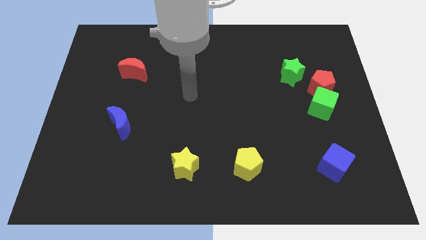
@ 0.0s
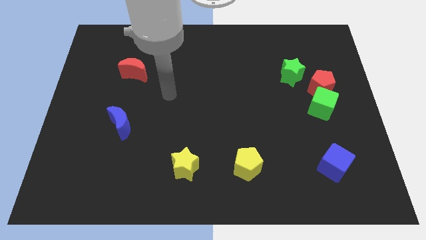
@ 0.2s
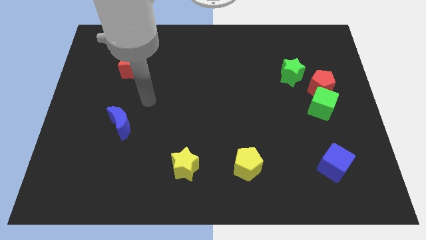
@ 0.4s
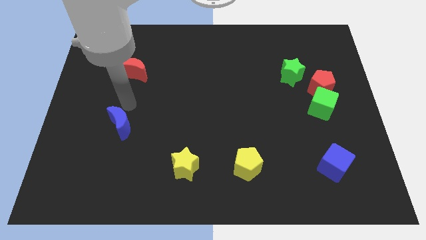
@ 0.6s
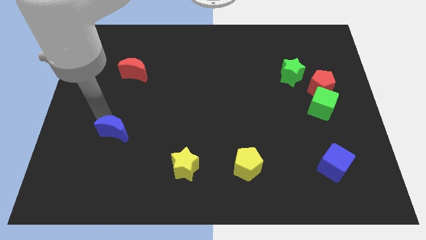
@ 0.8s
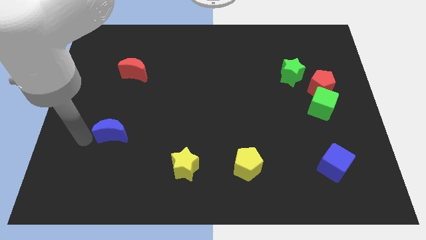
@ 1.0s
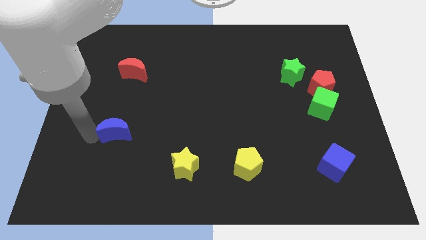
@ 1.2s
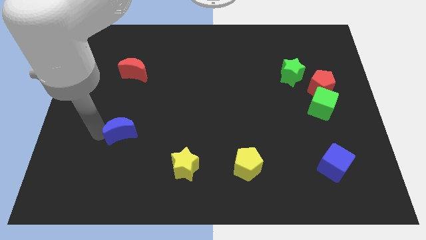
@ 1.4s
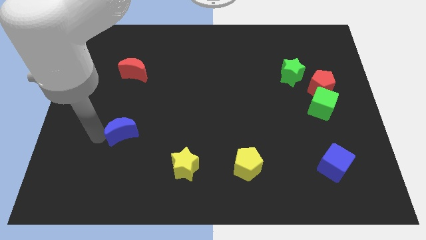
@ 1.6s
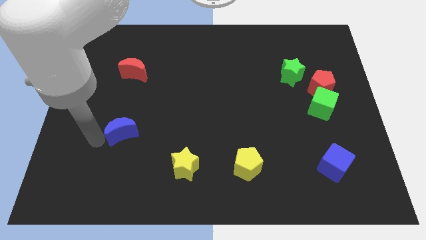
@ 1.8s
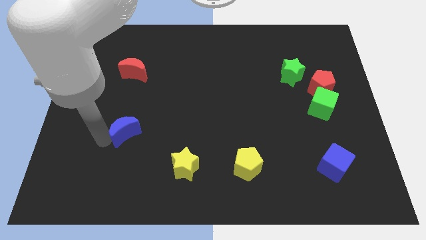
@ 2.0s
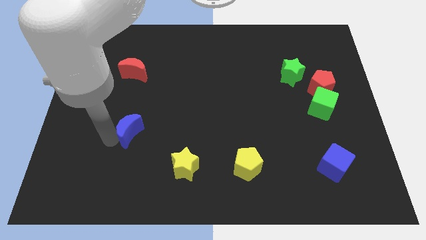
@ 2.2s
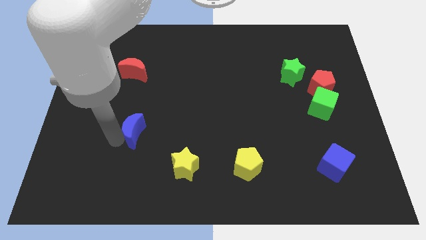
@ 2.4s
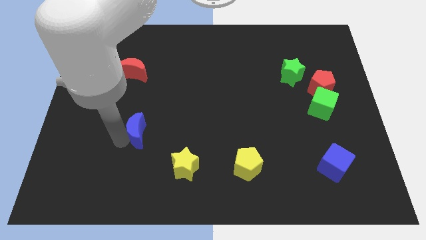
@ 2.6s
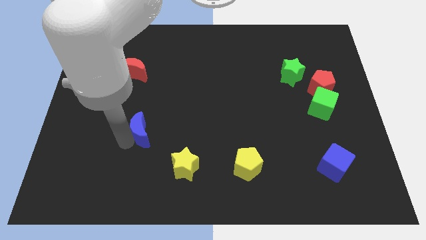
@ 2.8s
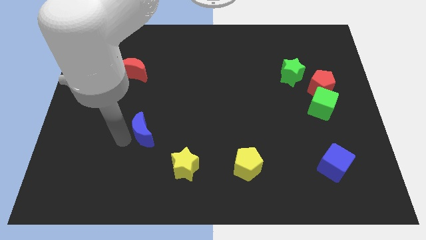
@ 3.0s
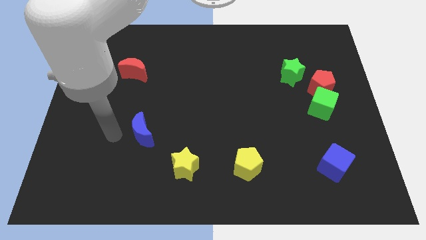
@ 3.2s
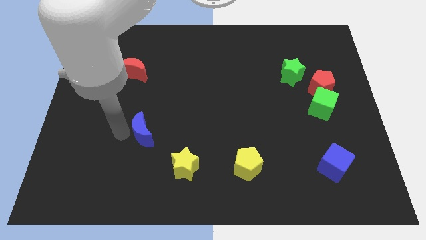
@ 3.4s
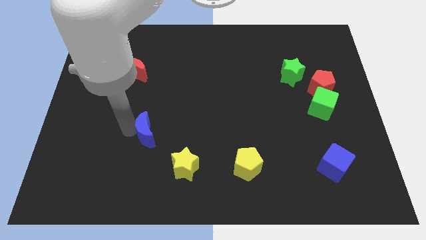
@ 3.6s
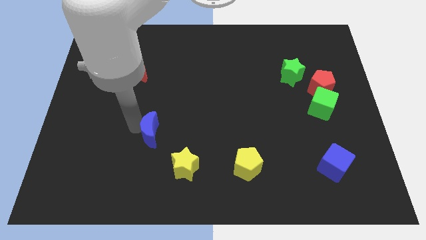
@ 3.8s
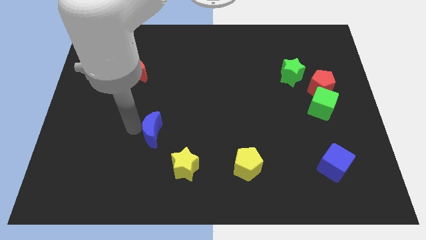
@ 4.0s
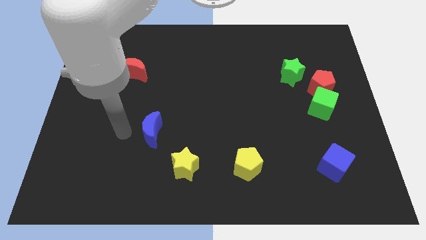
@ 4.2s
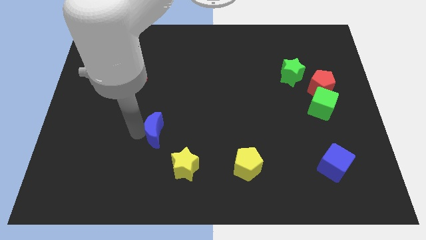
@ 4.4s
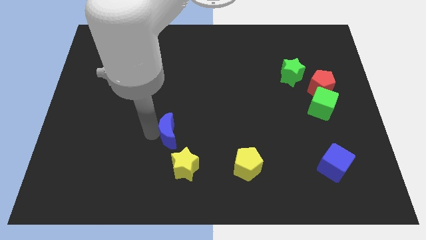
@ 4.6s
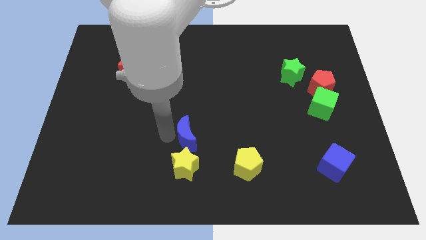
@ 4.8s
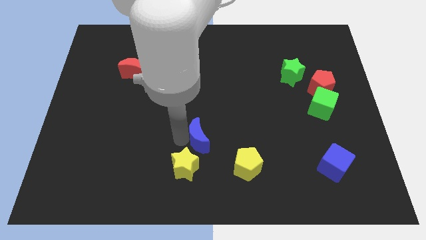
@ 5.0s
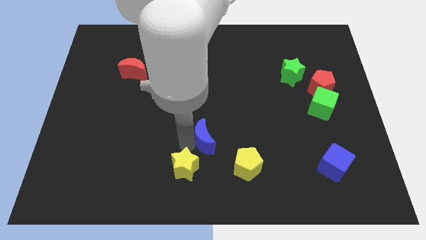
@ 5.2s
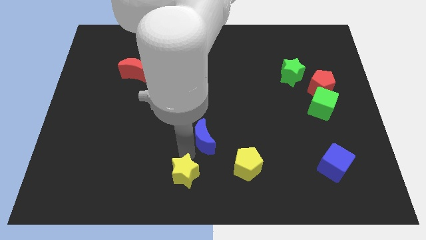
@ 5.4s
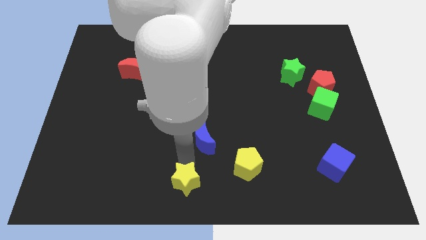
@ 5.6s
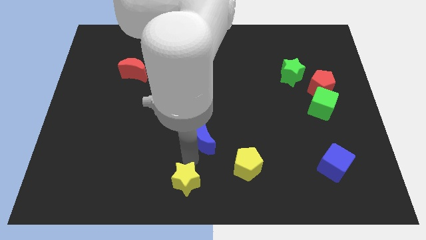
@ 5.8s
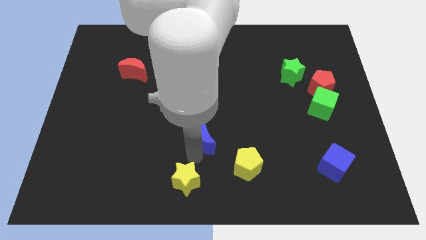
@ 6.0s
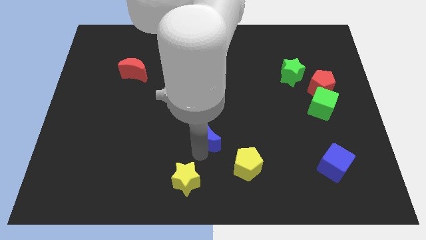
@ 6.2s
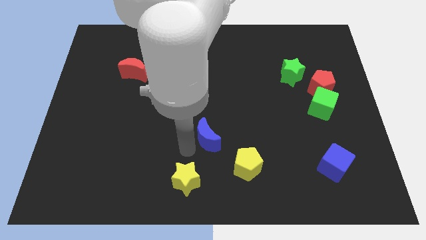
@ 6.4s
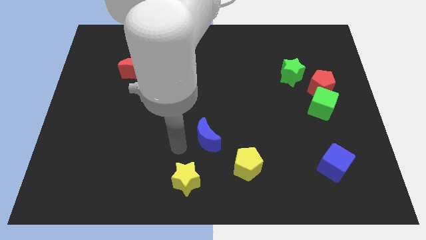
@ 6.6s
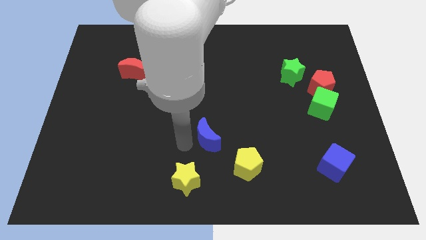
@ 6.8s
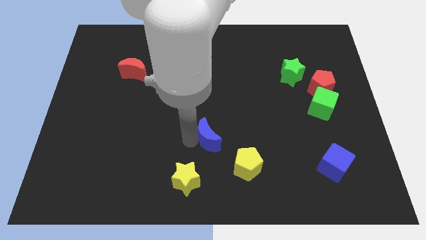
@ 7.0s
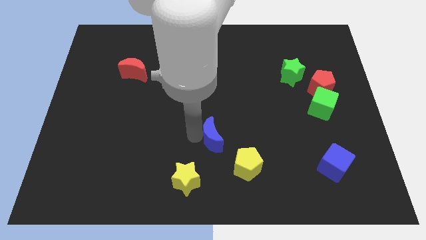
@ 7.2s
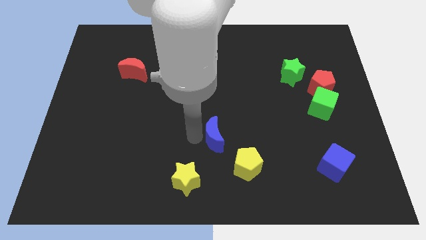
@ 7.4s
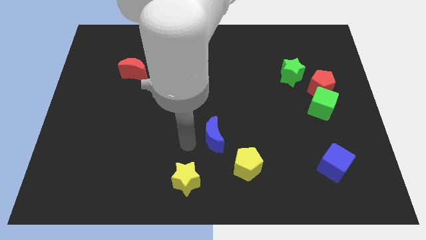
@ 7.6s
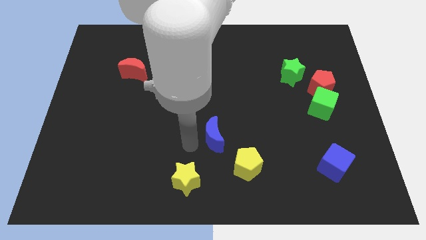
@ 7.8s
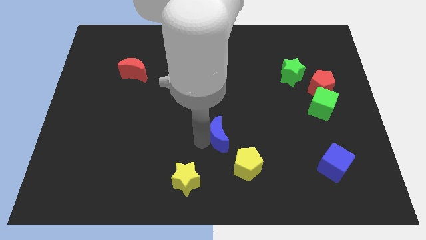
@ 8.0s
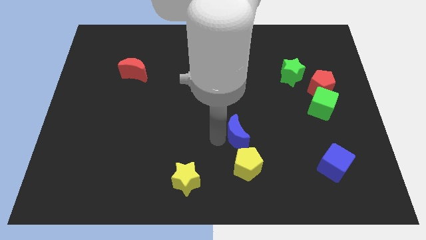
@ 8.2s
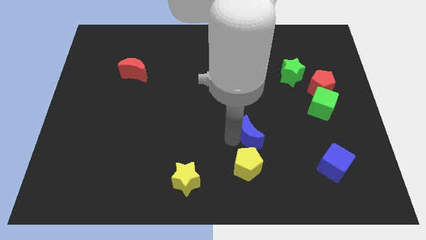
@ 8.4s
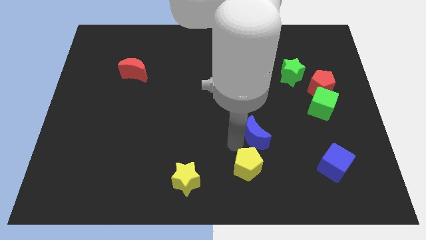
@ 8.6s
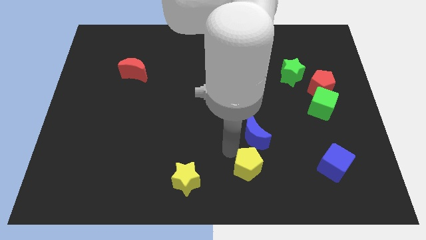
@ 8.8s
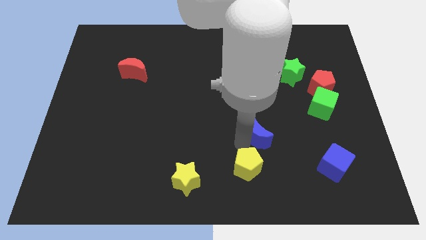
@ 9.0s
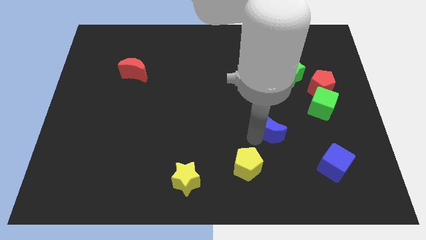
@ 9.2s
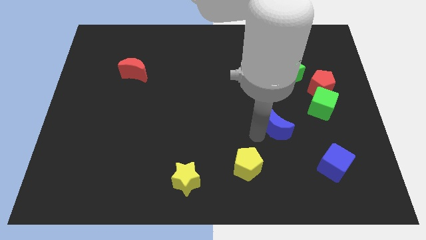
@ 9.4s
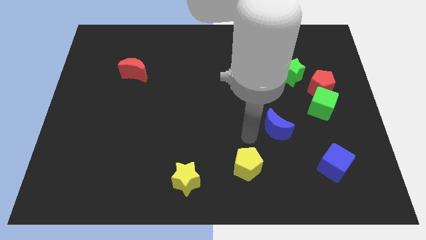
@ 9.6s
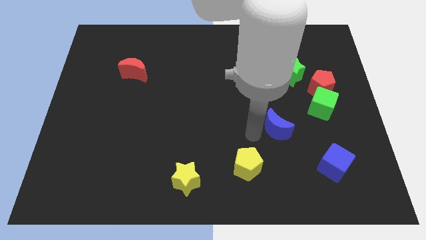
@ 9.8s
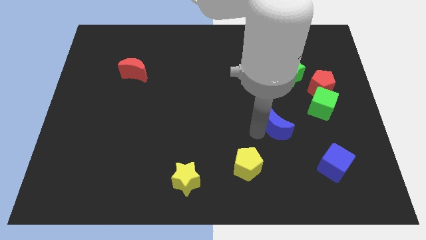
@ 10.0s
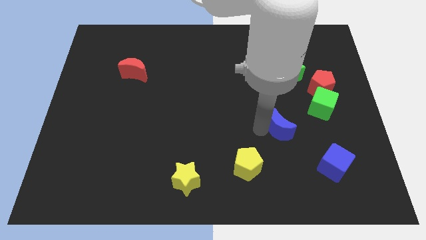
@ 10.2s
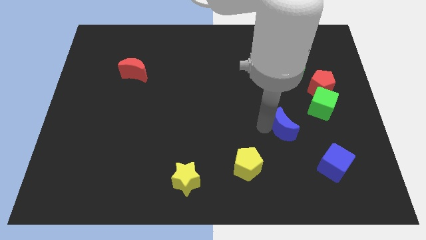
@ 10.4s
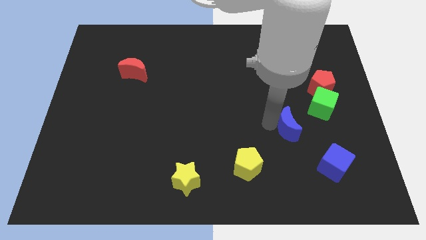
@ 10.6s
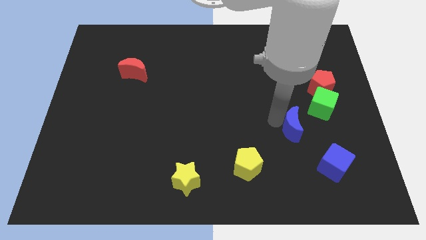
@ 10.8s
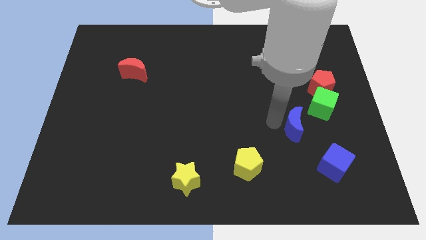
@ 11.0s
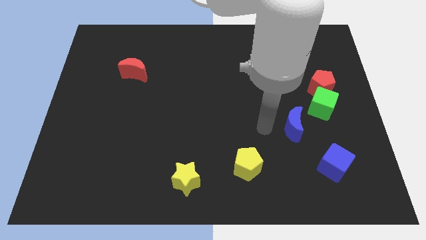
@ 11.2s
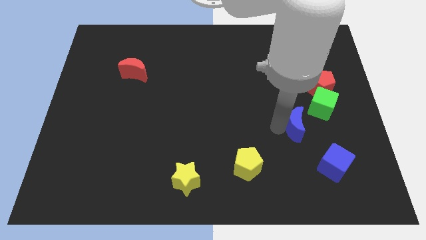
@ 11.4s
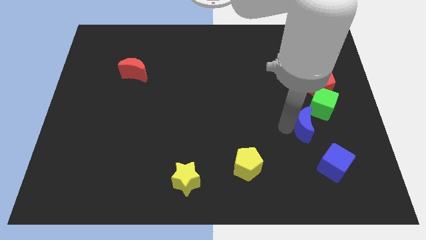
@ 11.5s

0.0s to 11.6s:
slide the blue moon to the top side of the blue cube

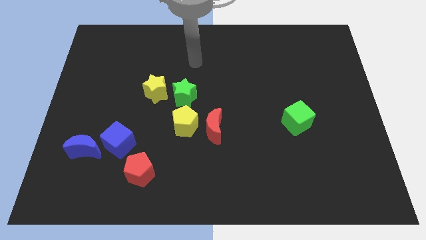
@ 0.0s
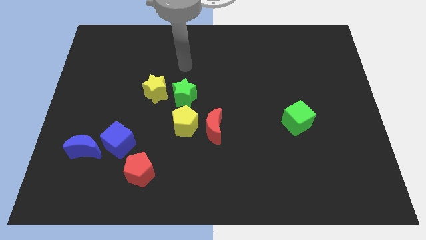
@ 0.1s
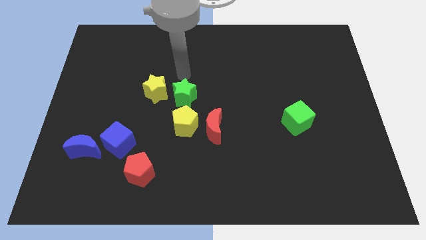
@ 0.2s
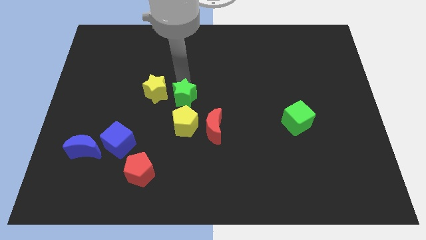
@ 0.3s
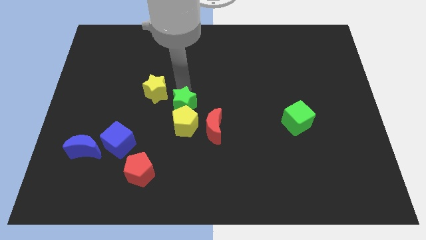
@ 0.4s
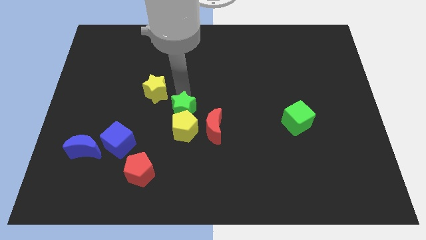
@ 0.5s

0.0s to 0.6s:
put the yellow pentagon diagonally down and to the left of the red moon

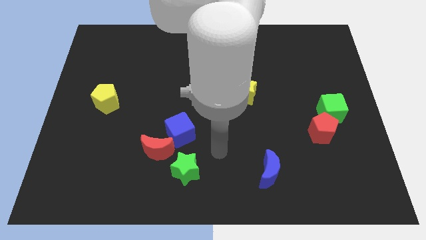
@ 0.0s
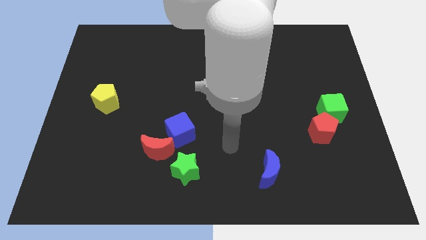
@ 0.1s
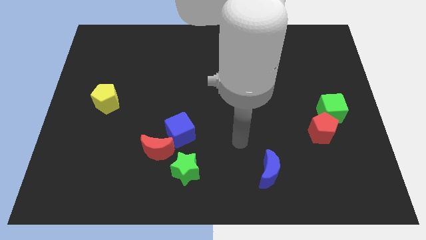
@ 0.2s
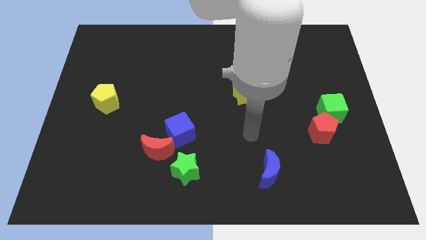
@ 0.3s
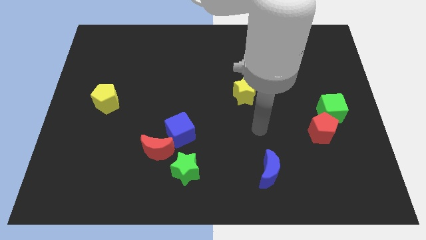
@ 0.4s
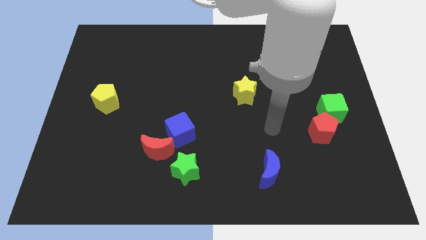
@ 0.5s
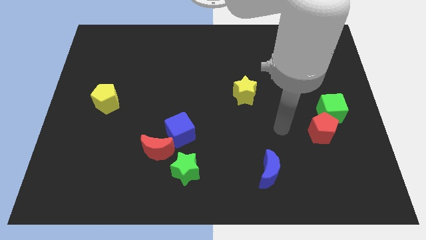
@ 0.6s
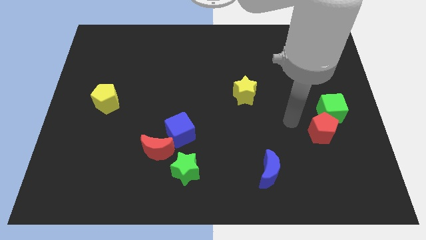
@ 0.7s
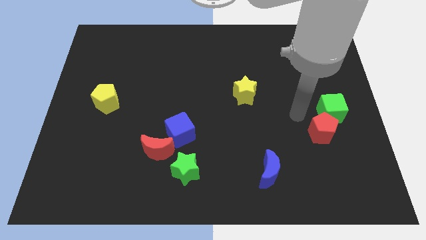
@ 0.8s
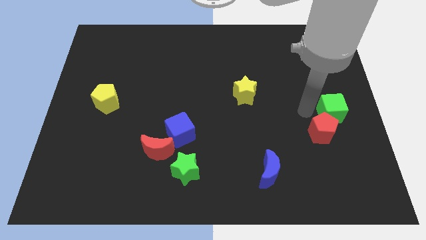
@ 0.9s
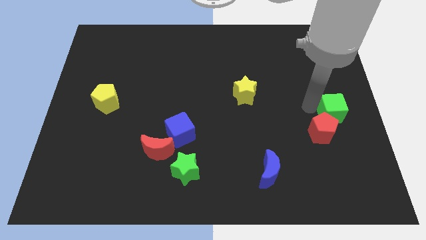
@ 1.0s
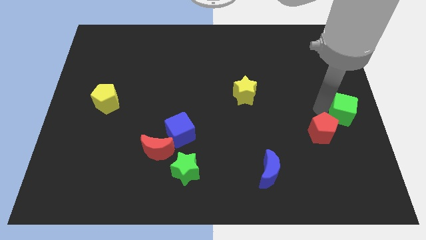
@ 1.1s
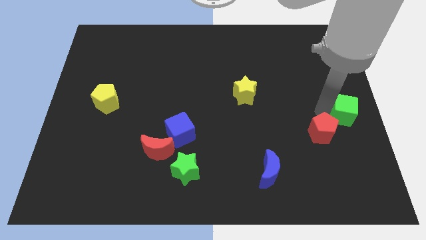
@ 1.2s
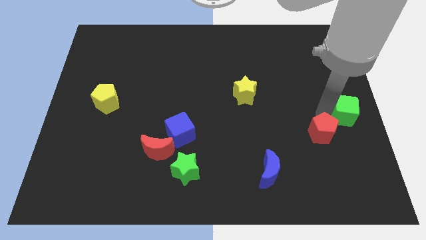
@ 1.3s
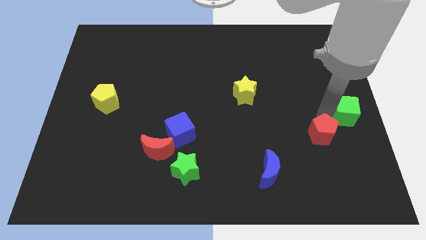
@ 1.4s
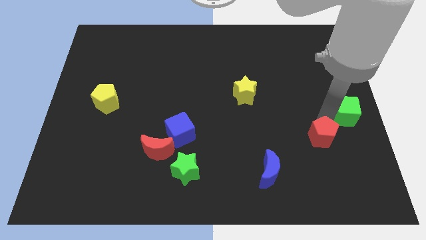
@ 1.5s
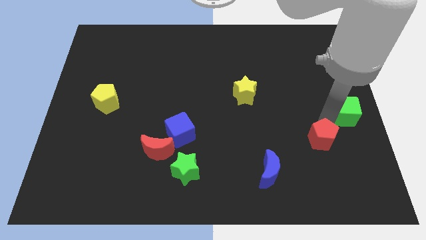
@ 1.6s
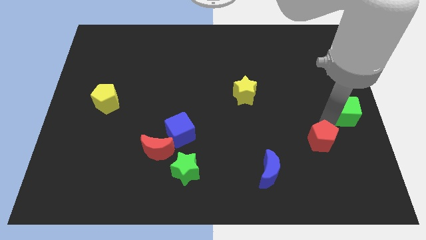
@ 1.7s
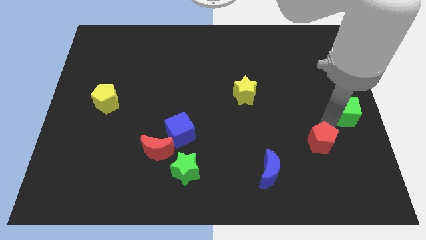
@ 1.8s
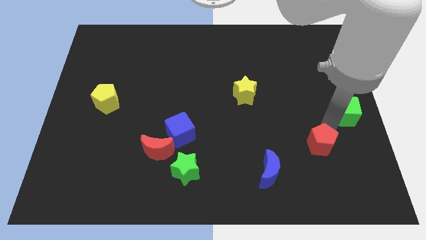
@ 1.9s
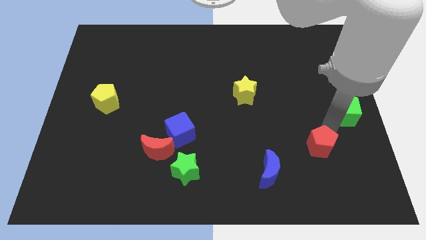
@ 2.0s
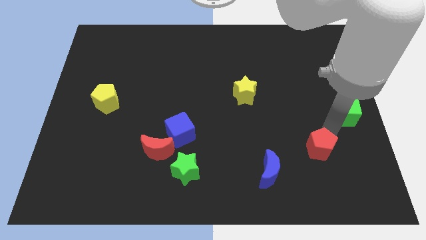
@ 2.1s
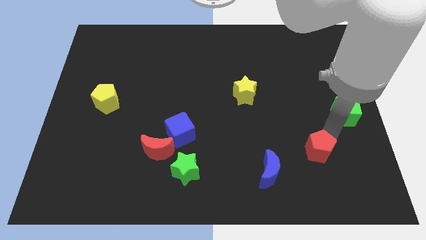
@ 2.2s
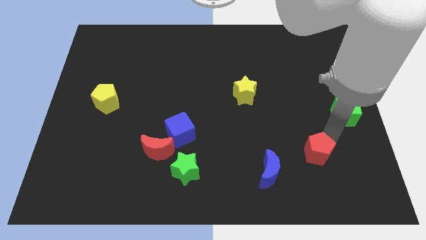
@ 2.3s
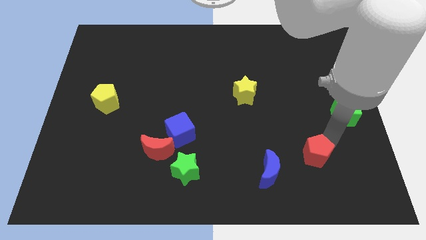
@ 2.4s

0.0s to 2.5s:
move the red pentagon right of the blue moon
